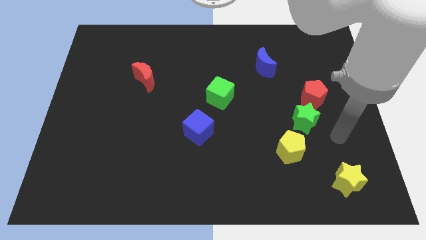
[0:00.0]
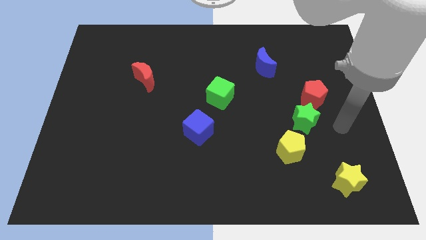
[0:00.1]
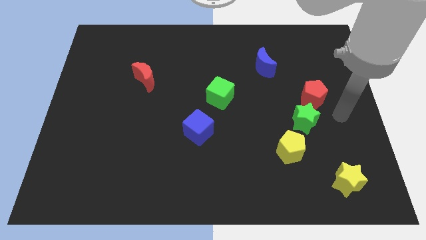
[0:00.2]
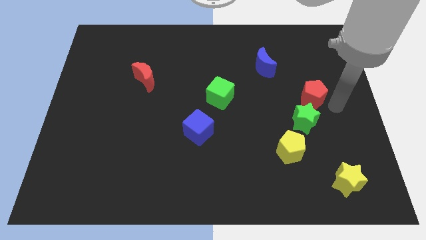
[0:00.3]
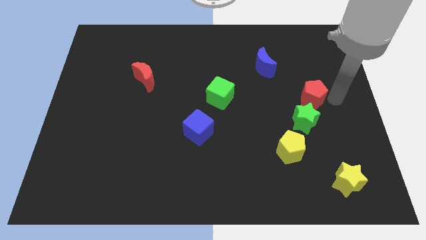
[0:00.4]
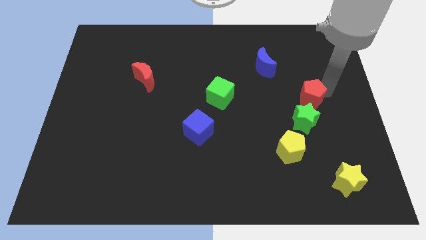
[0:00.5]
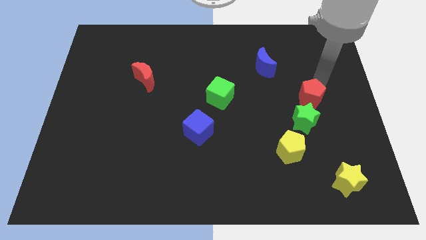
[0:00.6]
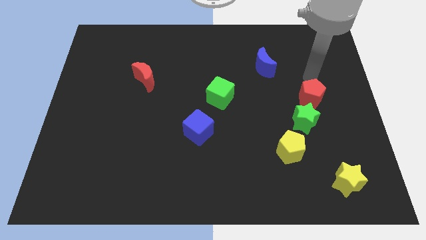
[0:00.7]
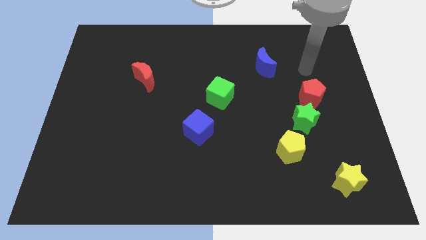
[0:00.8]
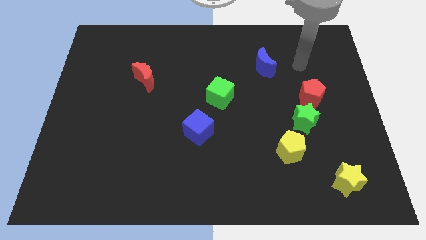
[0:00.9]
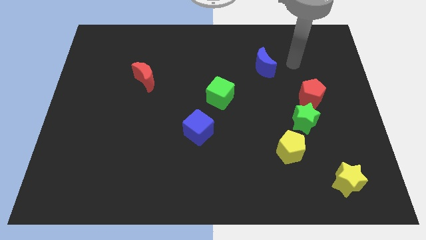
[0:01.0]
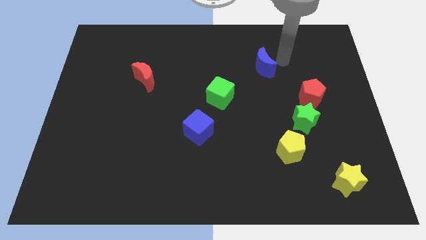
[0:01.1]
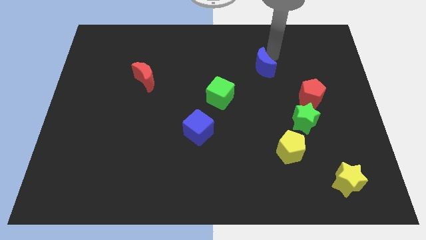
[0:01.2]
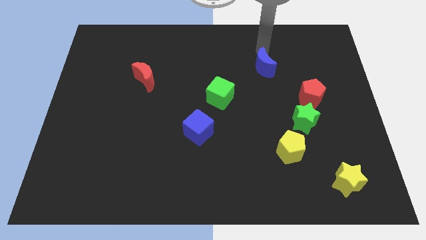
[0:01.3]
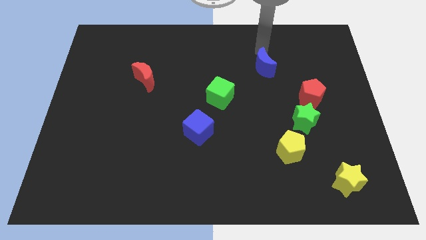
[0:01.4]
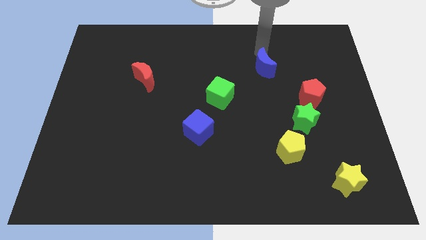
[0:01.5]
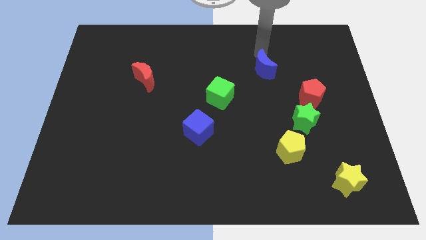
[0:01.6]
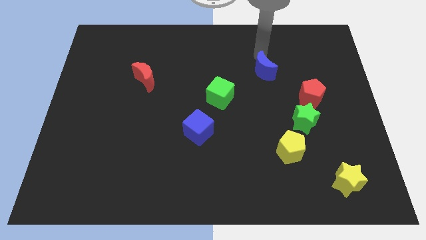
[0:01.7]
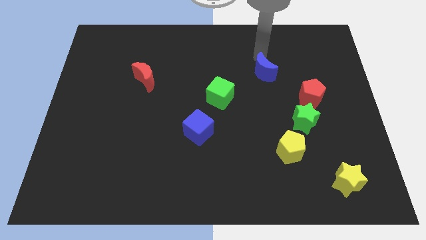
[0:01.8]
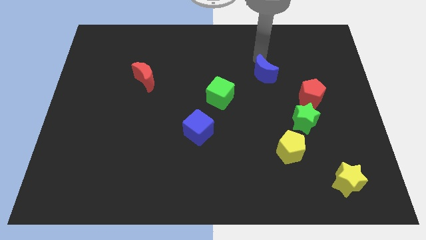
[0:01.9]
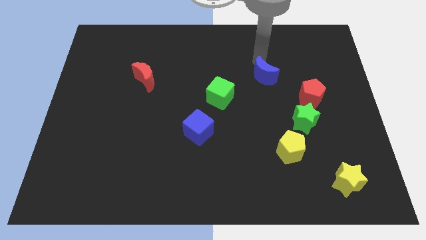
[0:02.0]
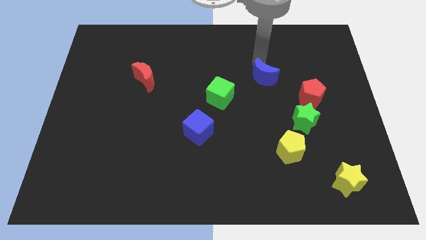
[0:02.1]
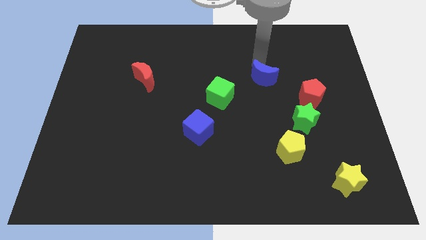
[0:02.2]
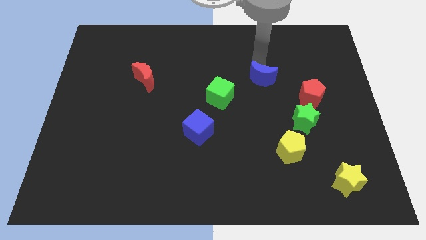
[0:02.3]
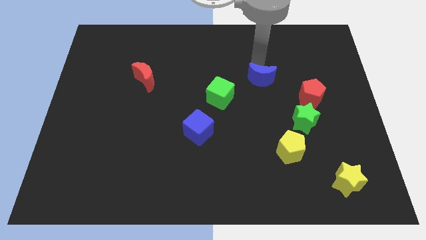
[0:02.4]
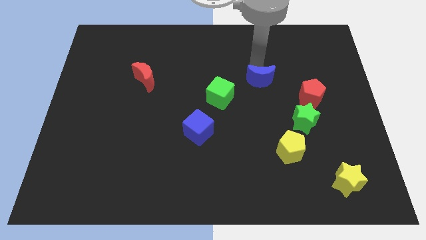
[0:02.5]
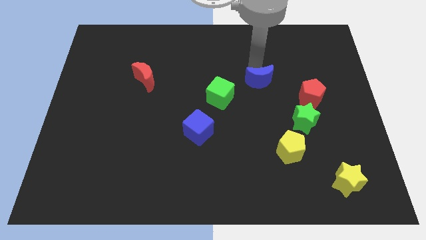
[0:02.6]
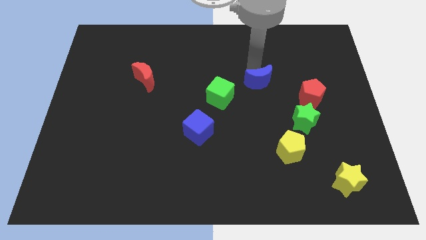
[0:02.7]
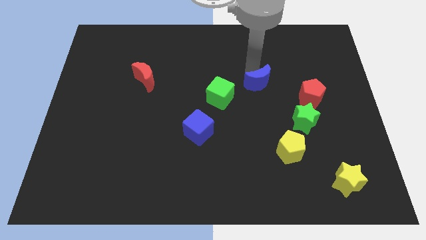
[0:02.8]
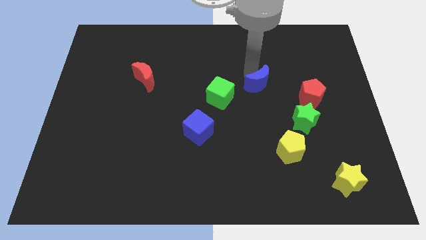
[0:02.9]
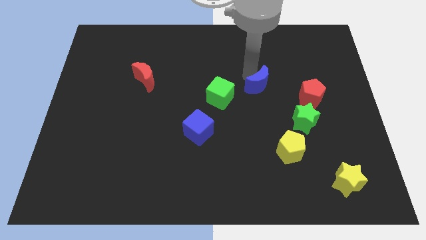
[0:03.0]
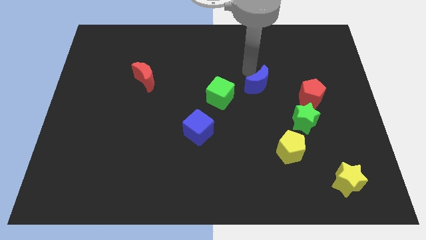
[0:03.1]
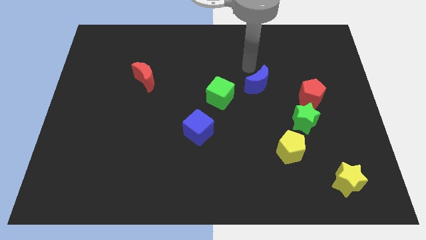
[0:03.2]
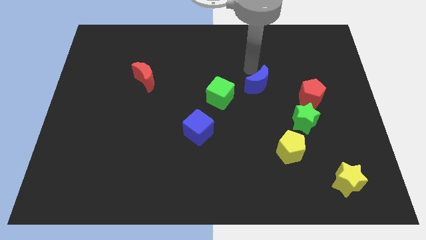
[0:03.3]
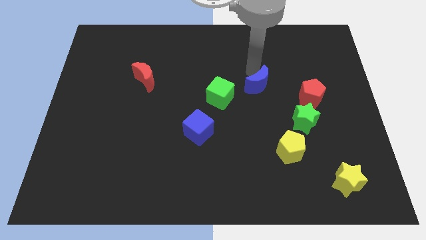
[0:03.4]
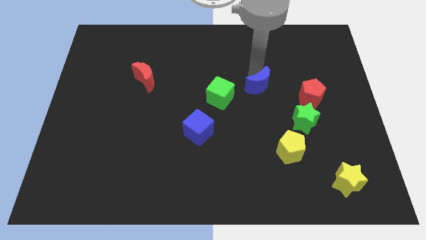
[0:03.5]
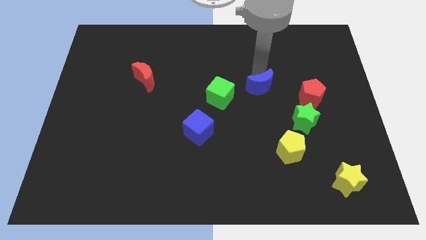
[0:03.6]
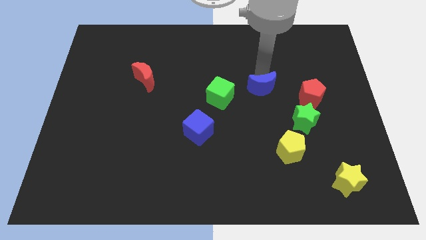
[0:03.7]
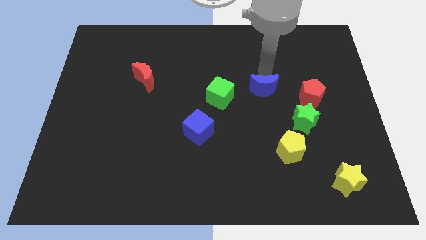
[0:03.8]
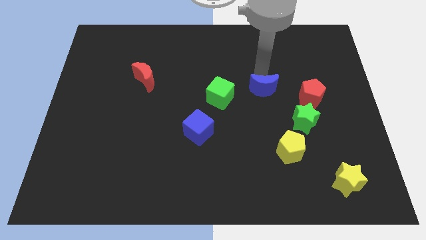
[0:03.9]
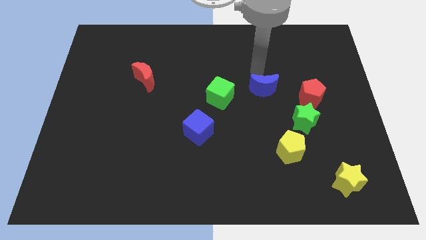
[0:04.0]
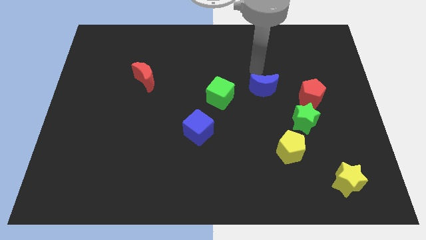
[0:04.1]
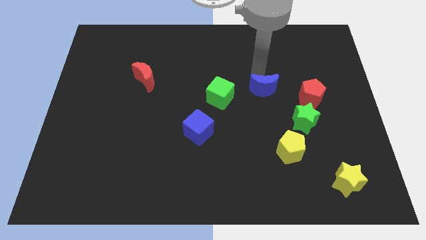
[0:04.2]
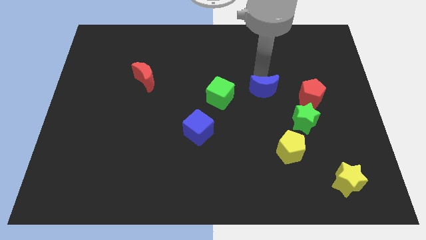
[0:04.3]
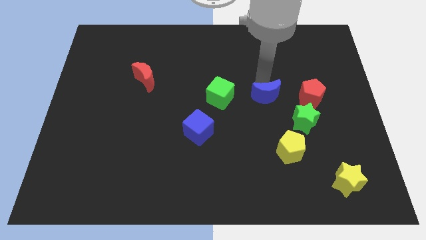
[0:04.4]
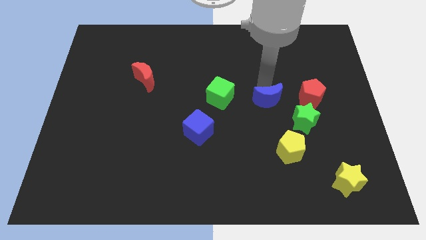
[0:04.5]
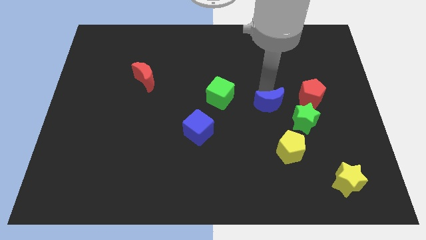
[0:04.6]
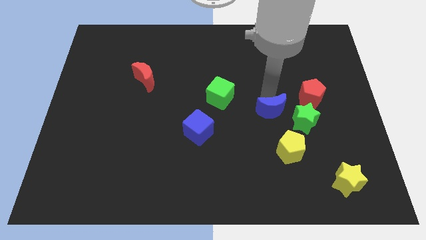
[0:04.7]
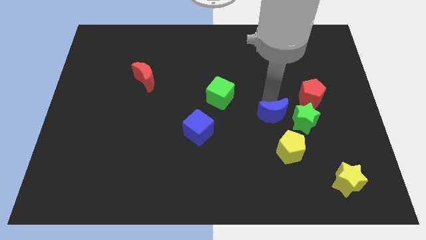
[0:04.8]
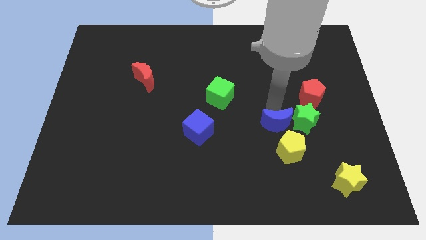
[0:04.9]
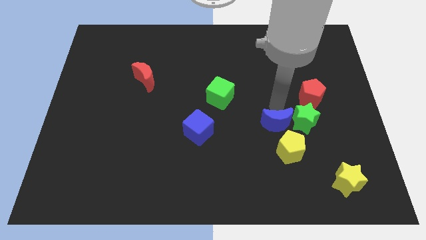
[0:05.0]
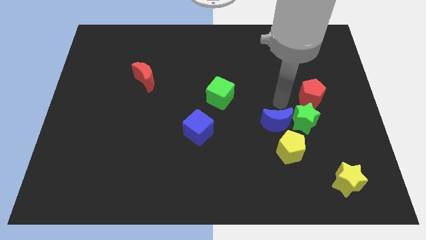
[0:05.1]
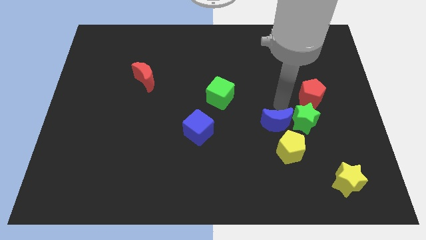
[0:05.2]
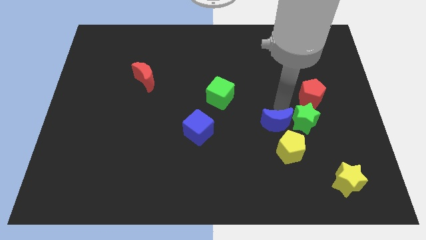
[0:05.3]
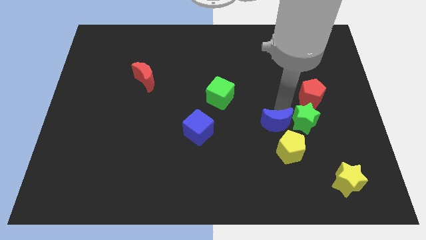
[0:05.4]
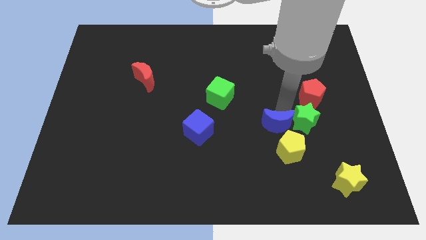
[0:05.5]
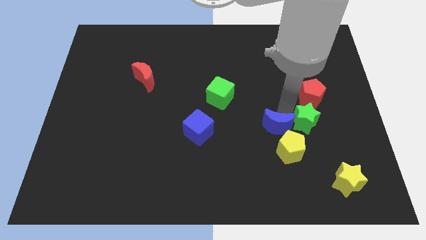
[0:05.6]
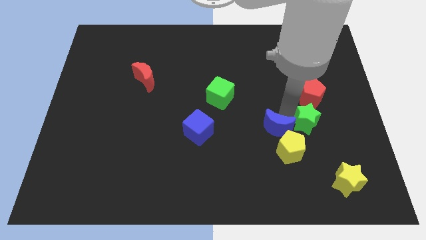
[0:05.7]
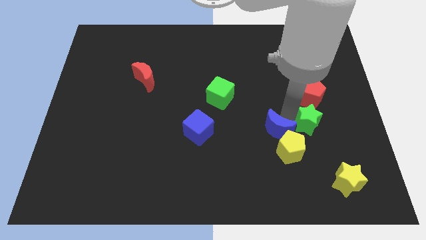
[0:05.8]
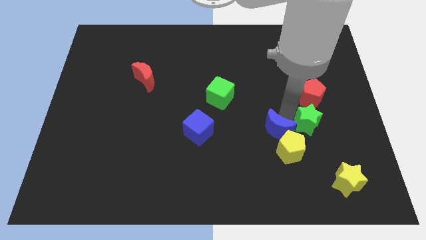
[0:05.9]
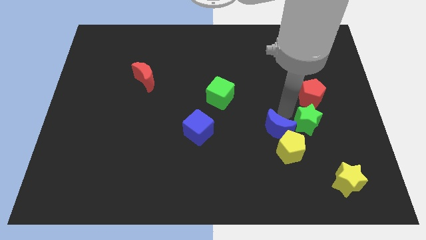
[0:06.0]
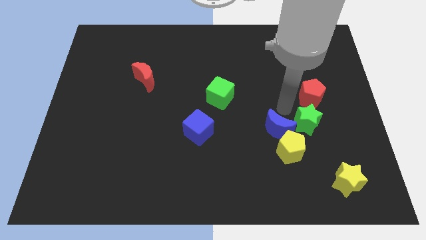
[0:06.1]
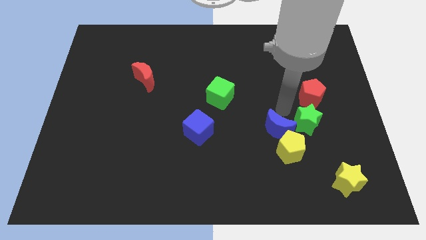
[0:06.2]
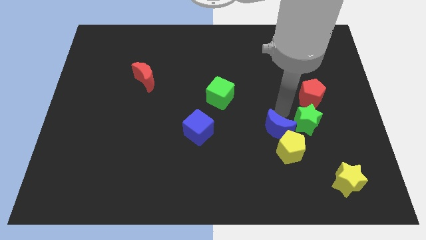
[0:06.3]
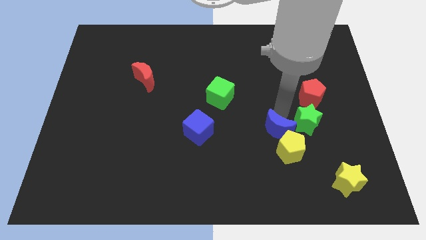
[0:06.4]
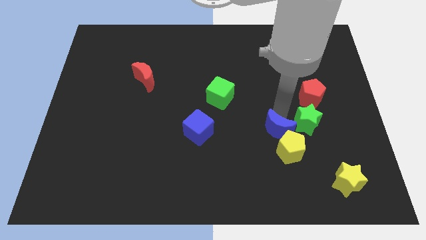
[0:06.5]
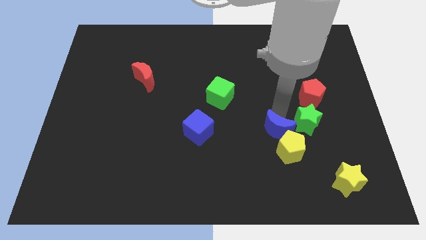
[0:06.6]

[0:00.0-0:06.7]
move the blue moon downwards

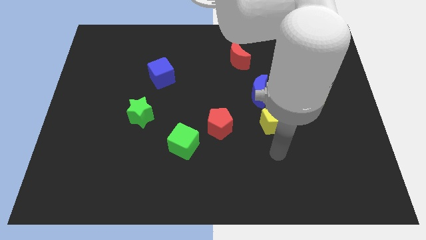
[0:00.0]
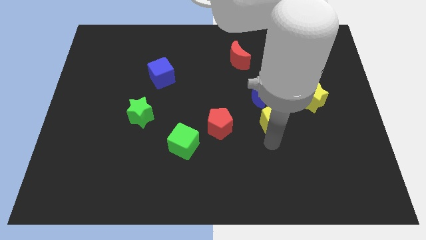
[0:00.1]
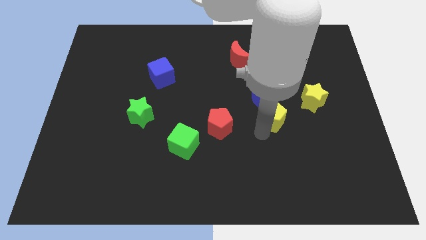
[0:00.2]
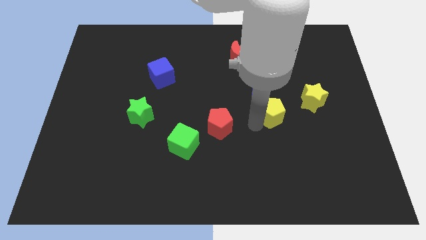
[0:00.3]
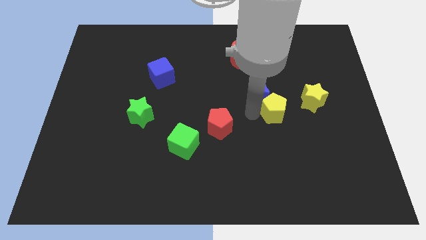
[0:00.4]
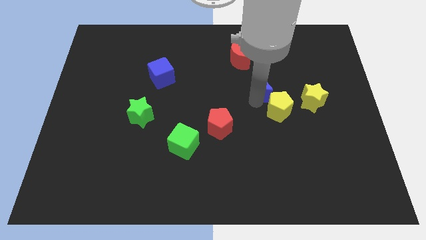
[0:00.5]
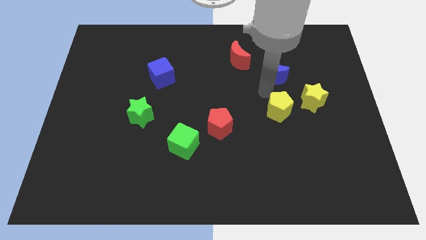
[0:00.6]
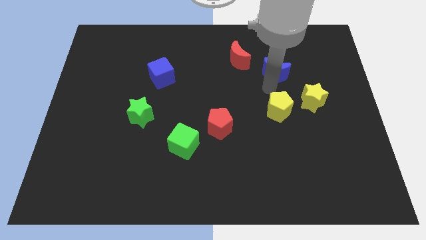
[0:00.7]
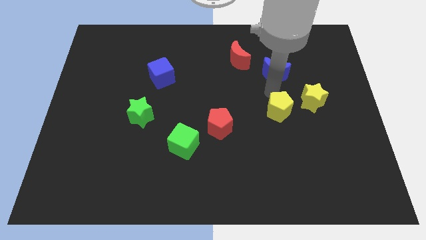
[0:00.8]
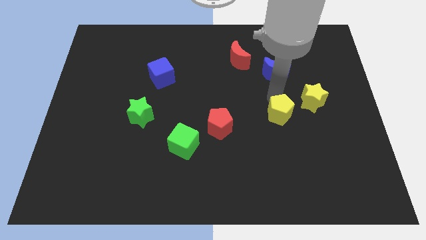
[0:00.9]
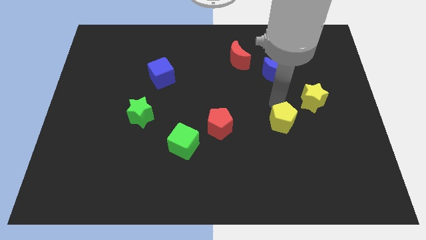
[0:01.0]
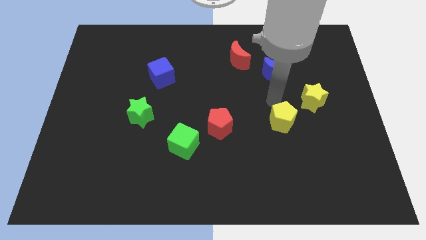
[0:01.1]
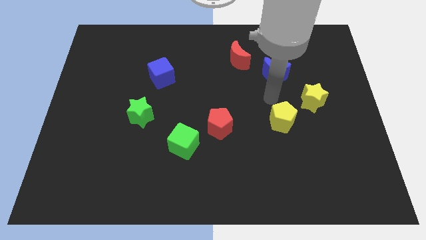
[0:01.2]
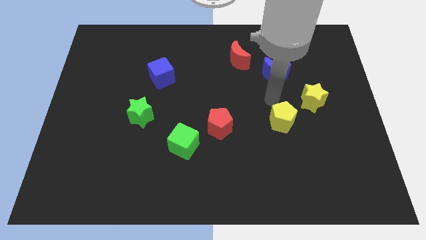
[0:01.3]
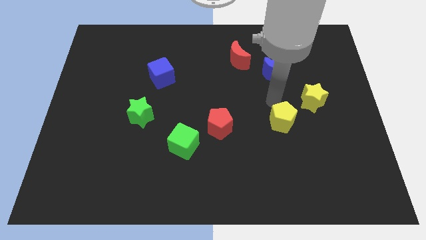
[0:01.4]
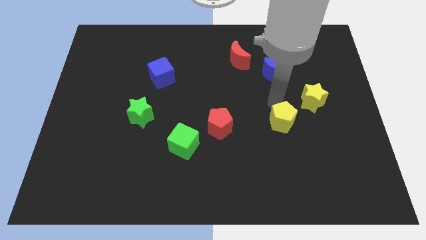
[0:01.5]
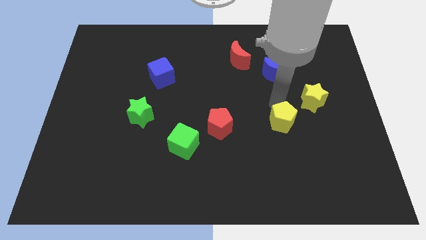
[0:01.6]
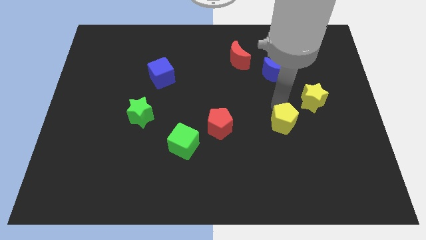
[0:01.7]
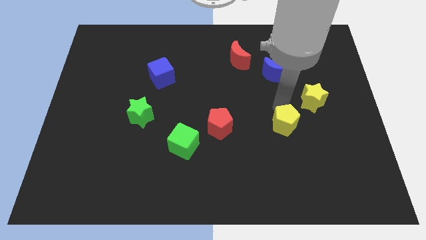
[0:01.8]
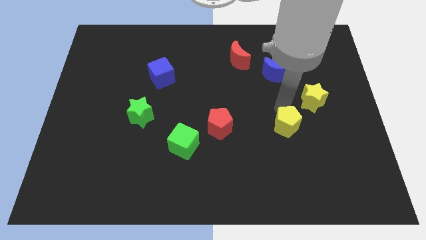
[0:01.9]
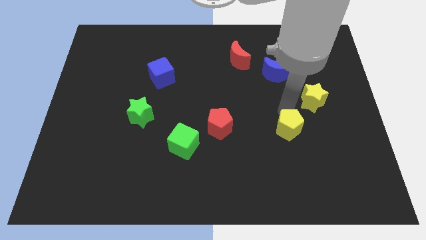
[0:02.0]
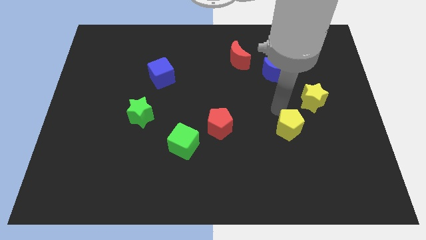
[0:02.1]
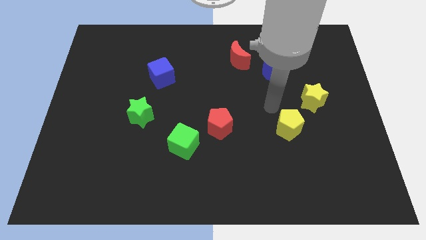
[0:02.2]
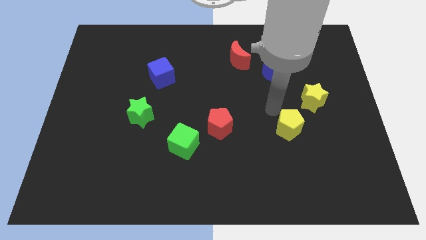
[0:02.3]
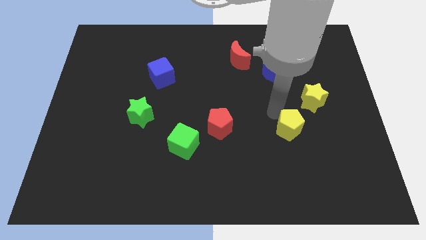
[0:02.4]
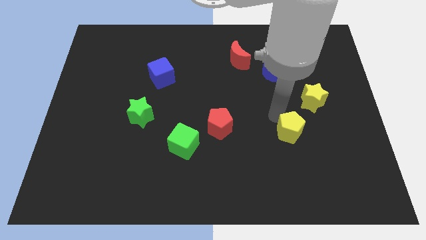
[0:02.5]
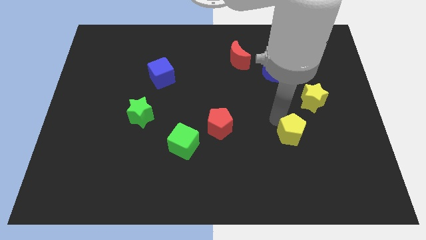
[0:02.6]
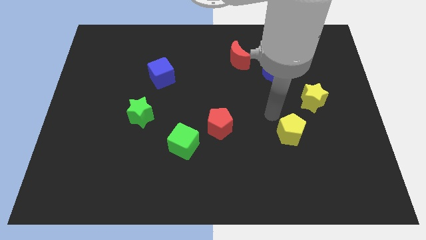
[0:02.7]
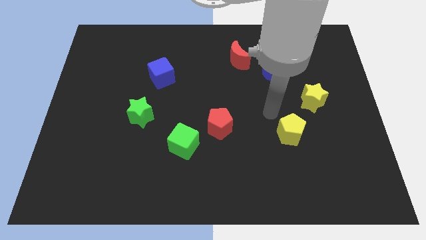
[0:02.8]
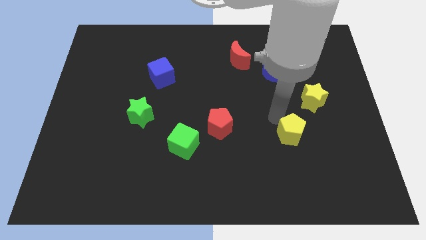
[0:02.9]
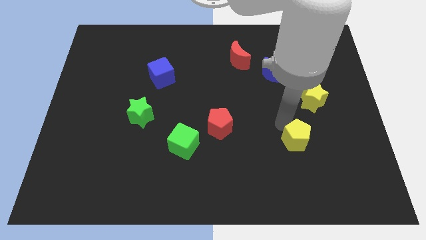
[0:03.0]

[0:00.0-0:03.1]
slide the yellow pentagon downwards and right diagonally a bit
